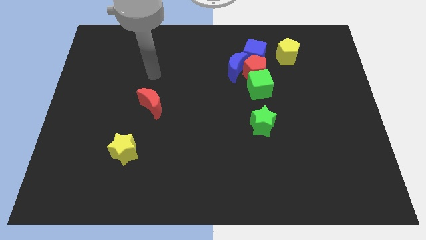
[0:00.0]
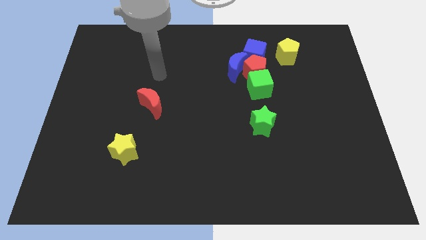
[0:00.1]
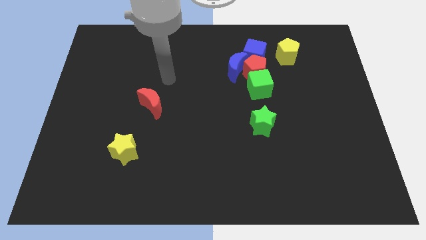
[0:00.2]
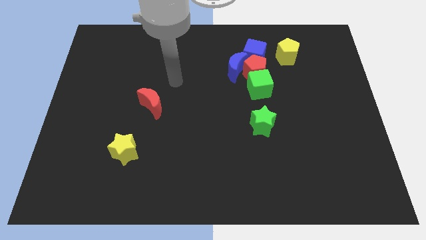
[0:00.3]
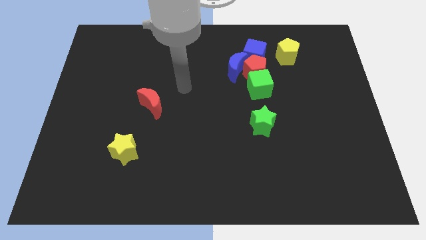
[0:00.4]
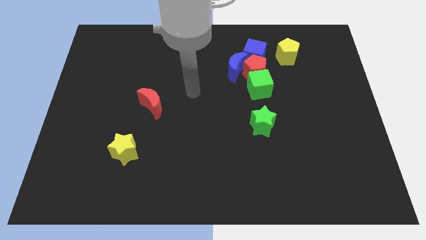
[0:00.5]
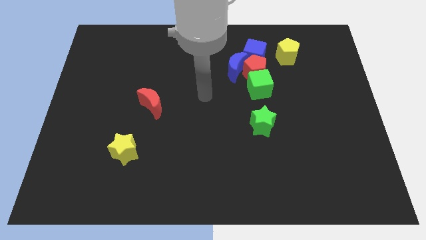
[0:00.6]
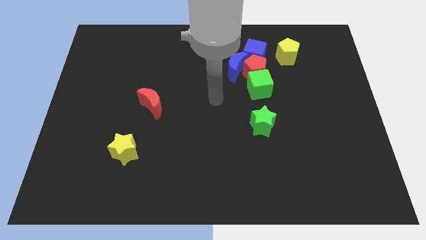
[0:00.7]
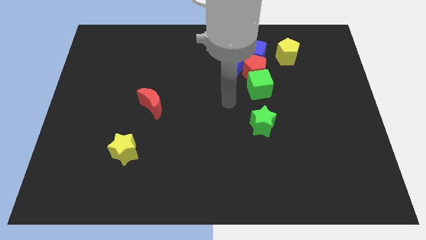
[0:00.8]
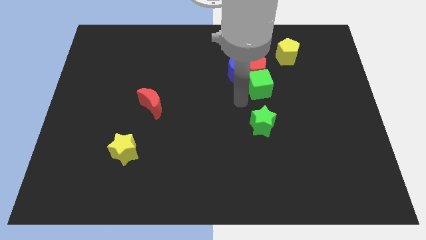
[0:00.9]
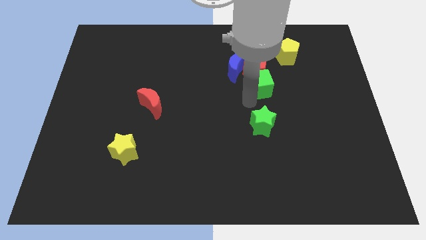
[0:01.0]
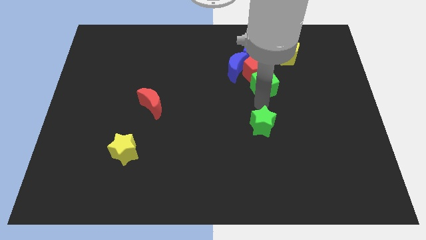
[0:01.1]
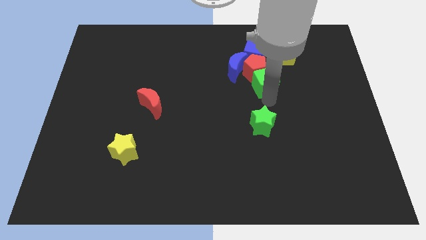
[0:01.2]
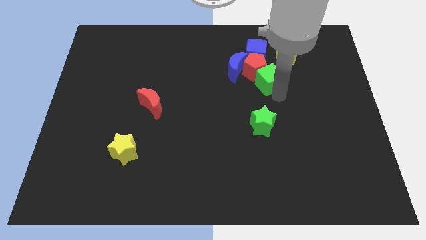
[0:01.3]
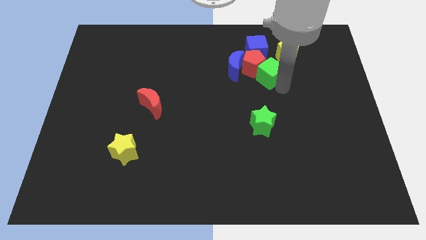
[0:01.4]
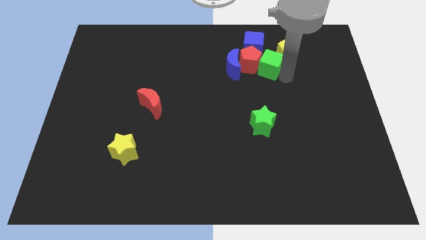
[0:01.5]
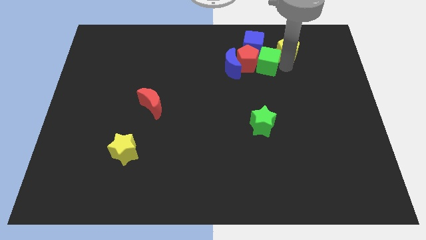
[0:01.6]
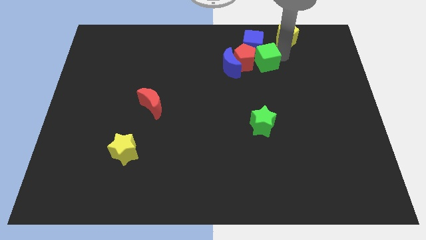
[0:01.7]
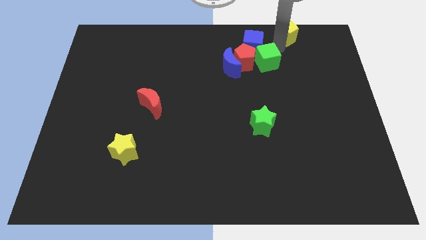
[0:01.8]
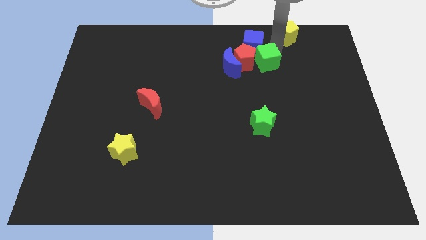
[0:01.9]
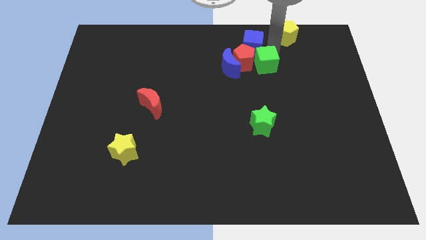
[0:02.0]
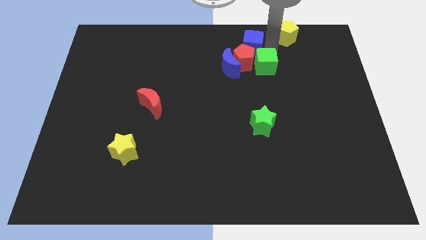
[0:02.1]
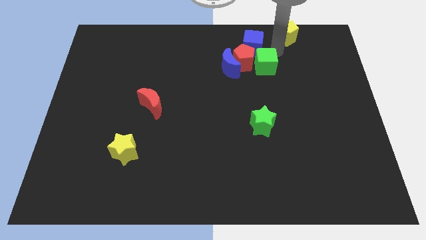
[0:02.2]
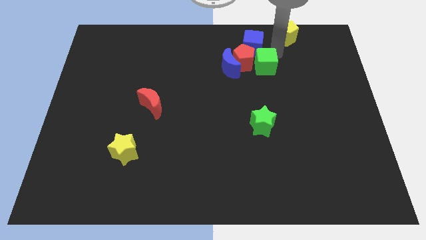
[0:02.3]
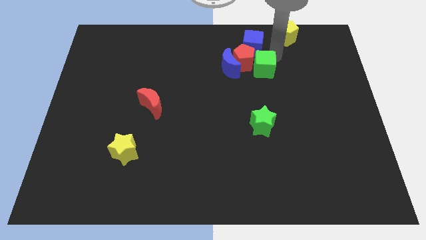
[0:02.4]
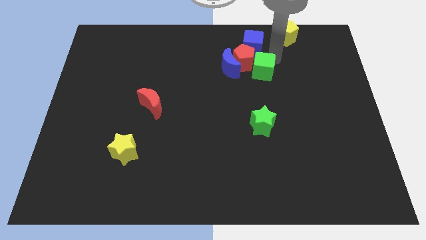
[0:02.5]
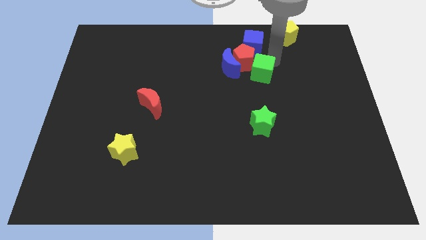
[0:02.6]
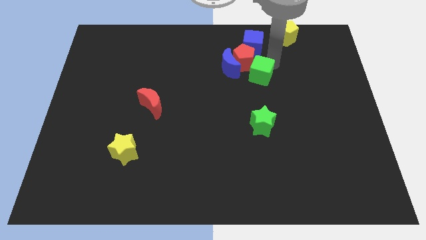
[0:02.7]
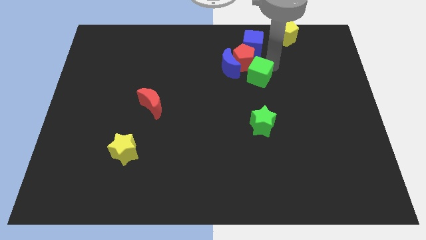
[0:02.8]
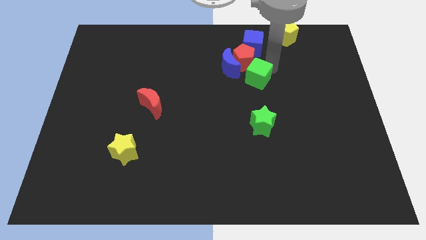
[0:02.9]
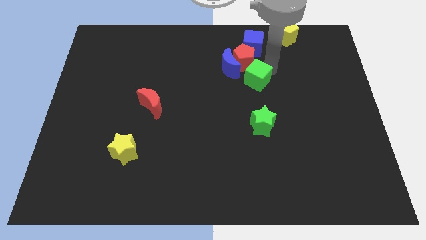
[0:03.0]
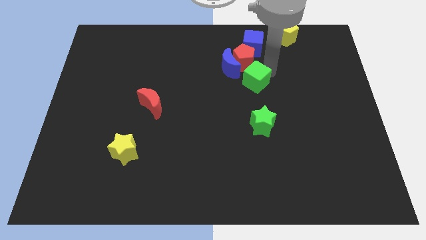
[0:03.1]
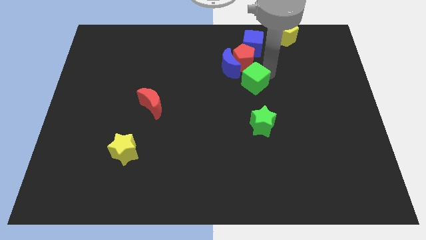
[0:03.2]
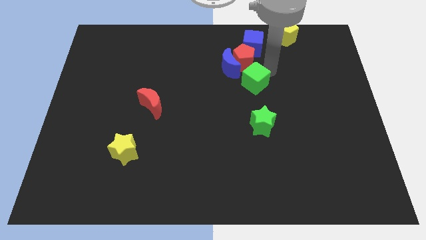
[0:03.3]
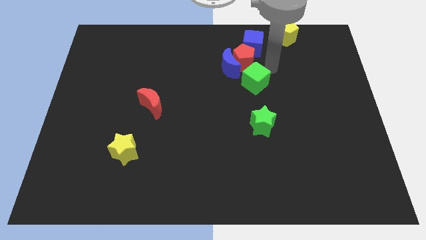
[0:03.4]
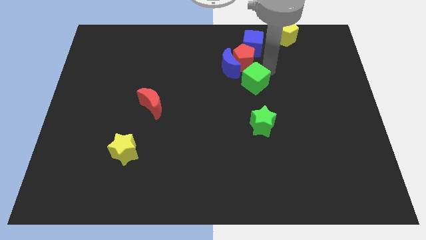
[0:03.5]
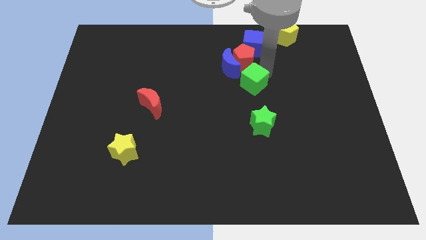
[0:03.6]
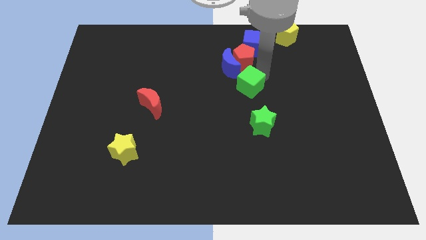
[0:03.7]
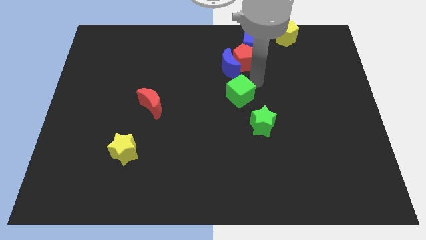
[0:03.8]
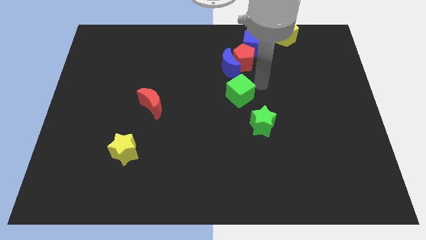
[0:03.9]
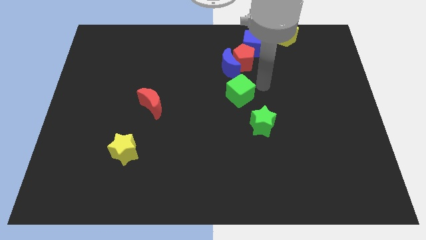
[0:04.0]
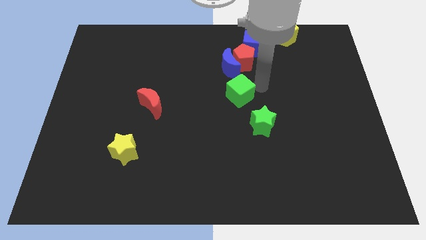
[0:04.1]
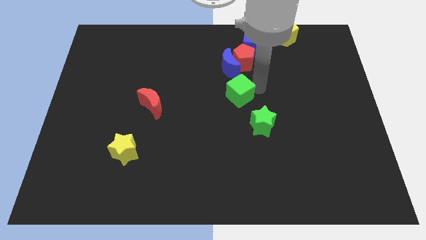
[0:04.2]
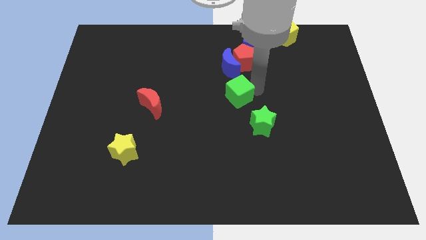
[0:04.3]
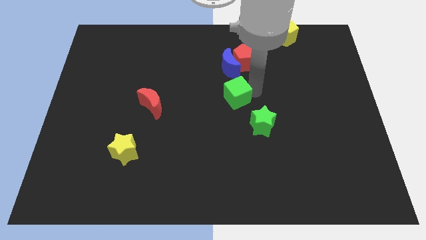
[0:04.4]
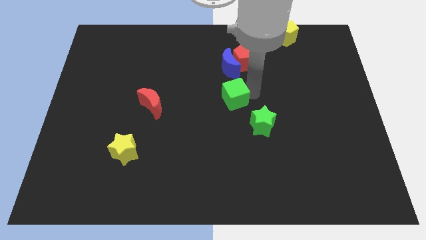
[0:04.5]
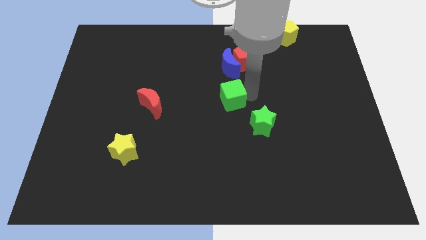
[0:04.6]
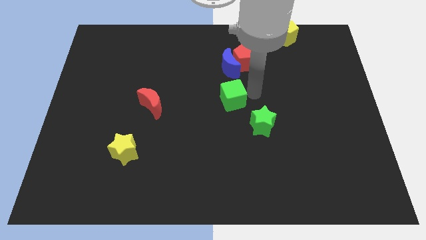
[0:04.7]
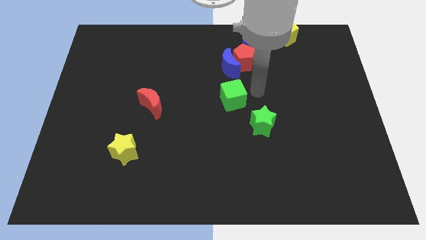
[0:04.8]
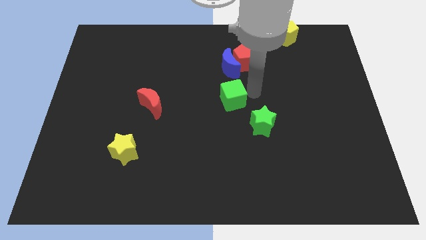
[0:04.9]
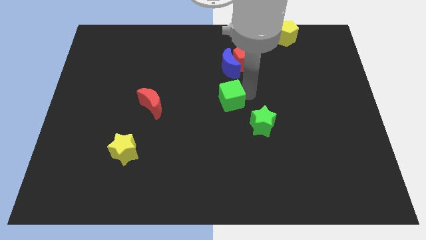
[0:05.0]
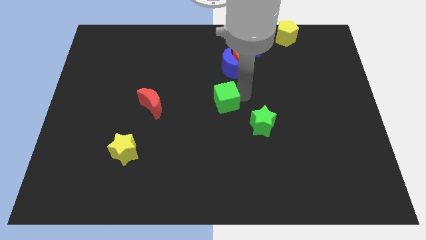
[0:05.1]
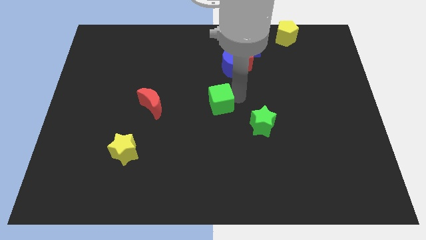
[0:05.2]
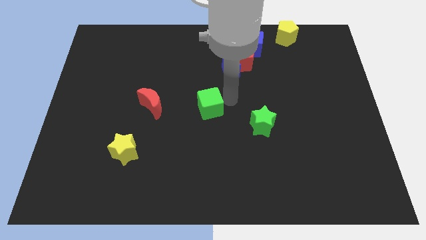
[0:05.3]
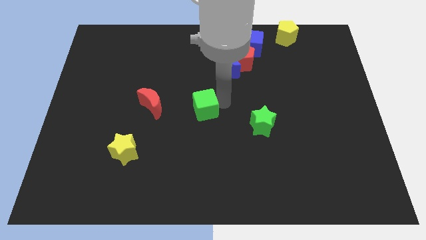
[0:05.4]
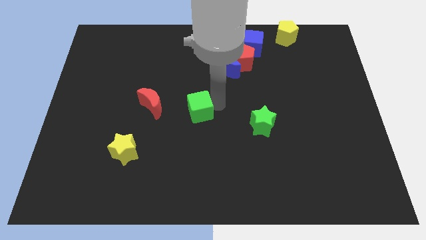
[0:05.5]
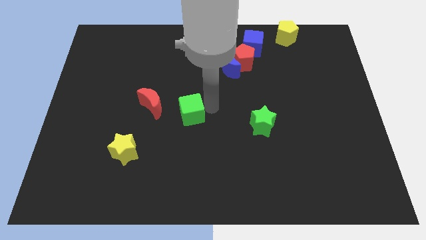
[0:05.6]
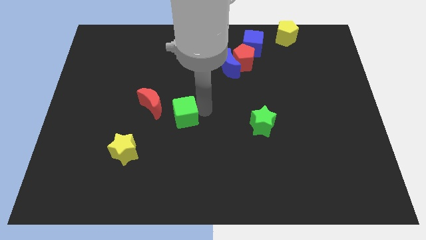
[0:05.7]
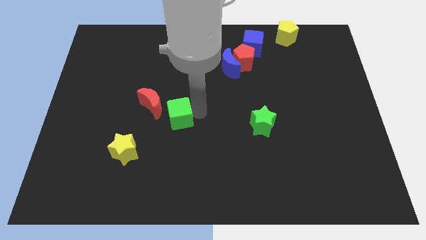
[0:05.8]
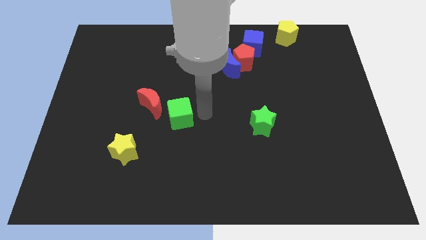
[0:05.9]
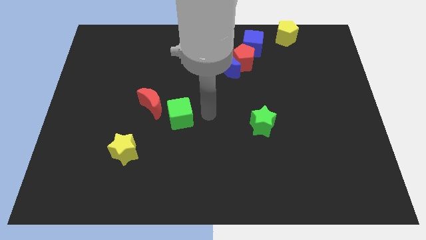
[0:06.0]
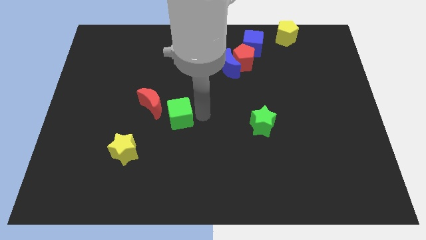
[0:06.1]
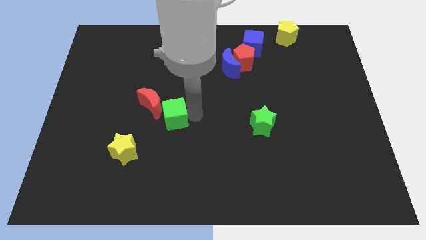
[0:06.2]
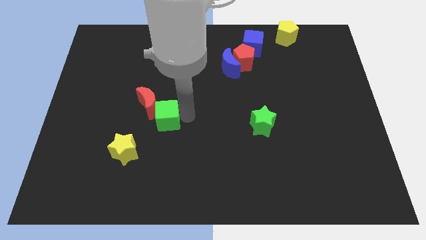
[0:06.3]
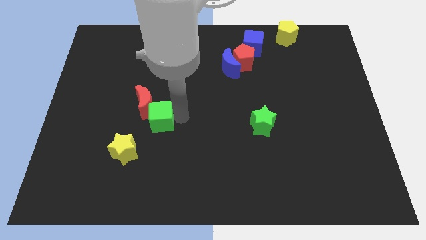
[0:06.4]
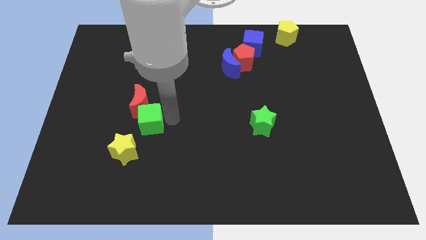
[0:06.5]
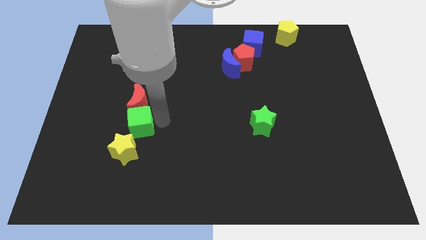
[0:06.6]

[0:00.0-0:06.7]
slide the green cube to the bottom left side of the red moon

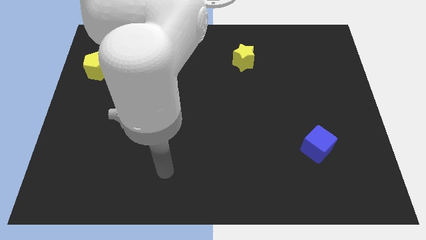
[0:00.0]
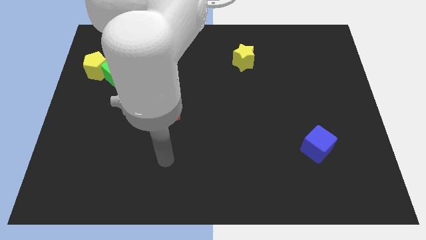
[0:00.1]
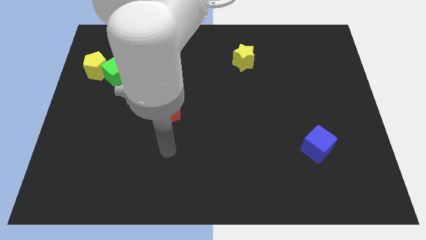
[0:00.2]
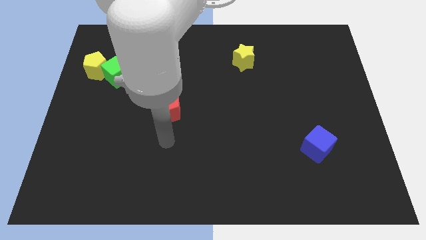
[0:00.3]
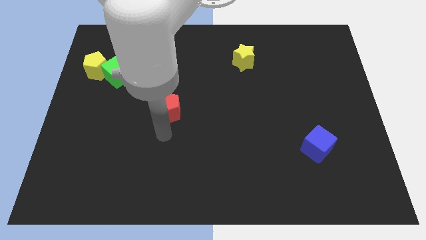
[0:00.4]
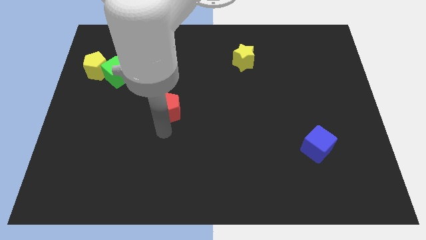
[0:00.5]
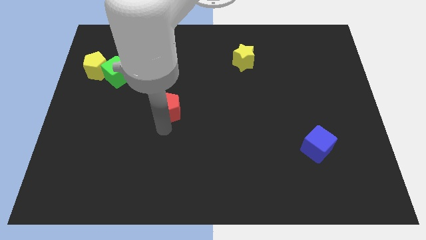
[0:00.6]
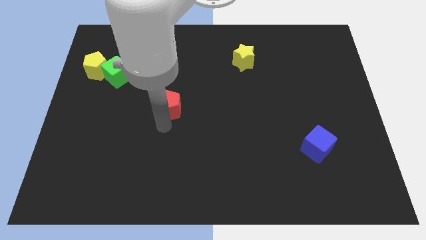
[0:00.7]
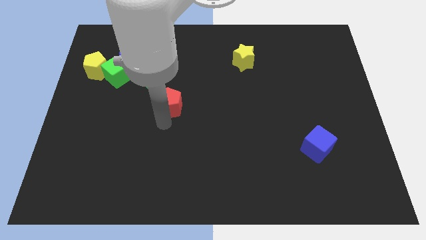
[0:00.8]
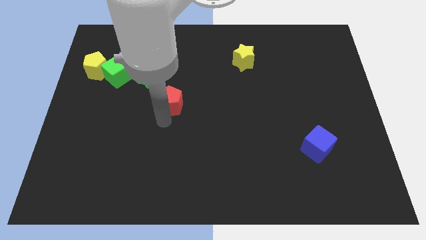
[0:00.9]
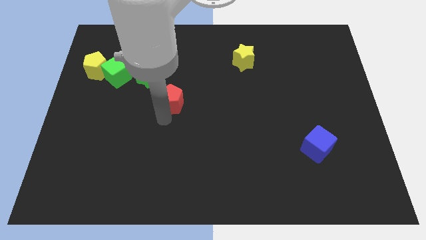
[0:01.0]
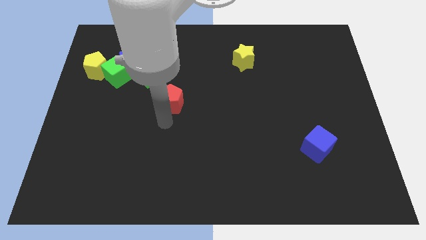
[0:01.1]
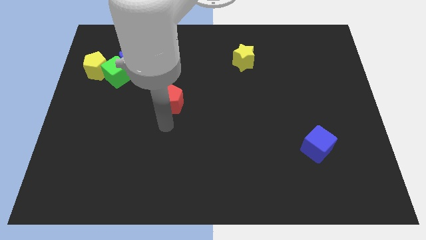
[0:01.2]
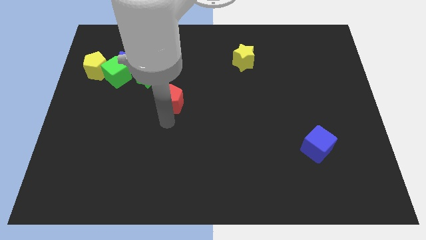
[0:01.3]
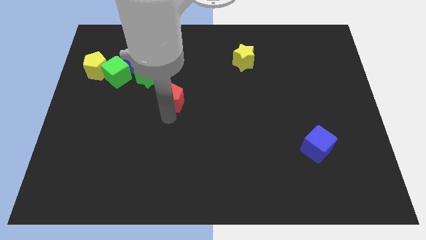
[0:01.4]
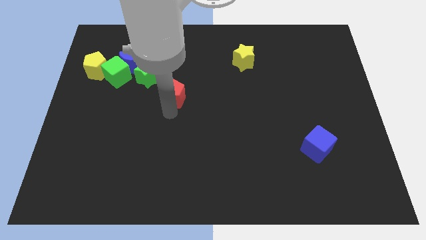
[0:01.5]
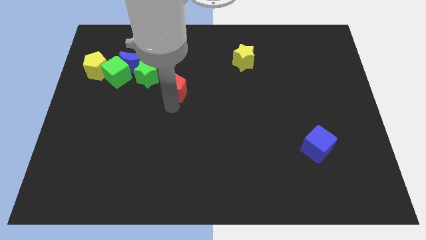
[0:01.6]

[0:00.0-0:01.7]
move the red pentagon to the bottom right side of the red moon
